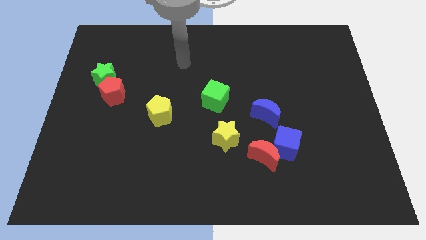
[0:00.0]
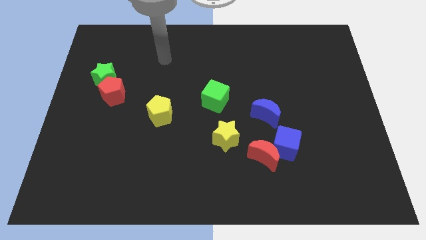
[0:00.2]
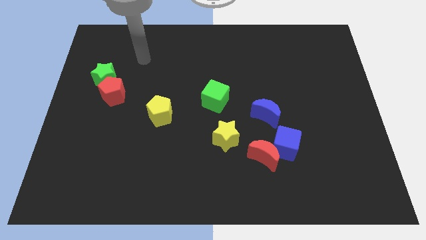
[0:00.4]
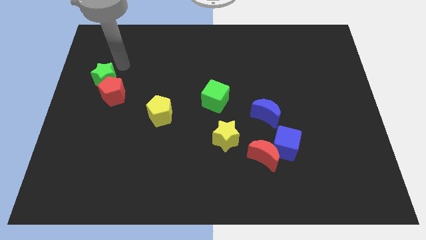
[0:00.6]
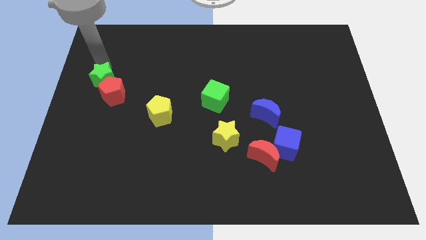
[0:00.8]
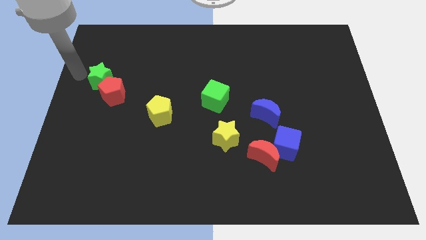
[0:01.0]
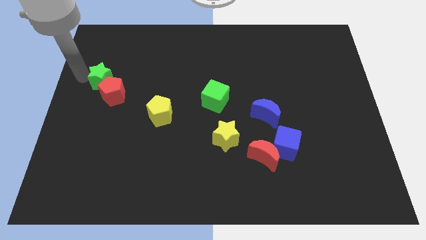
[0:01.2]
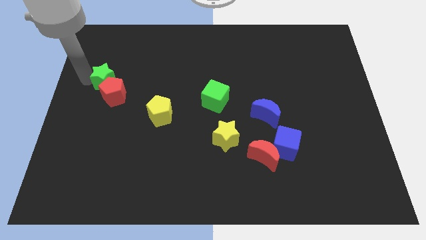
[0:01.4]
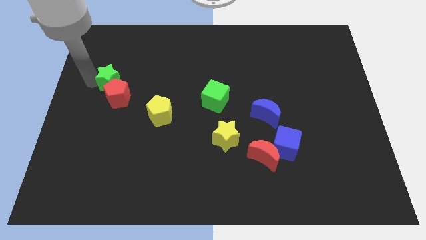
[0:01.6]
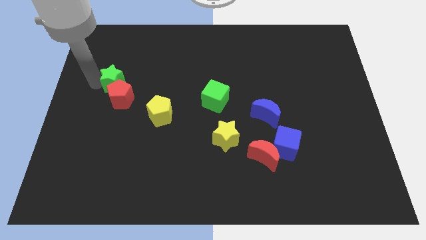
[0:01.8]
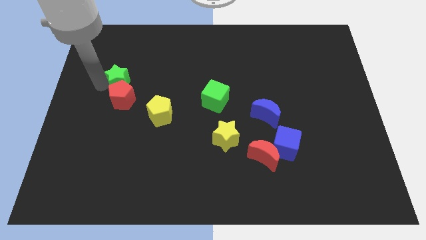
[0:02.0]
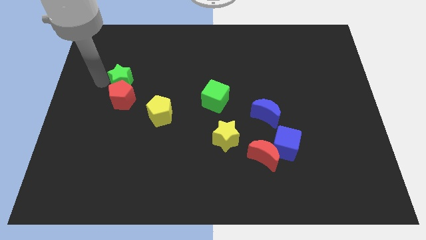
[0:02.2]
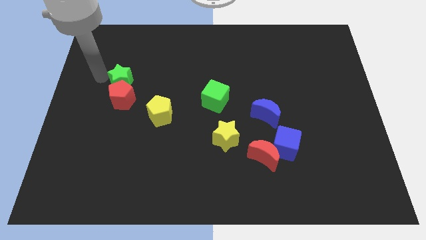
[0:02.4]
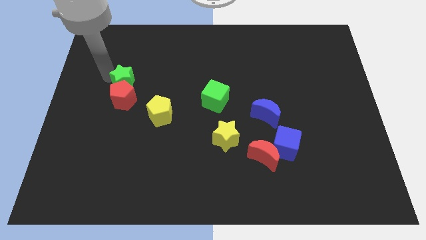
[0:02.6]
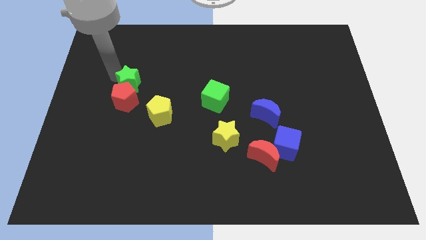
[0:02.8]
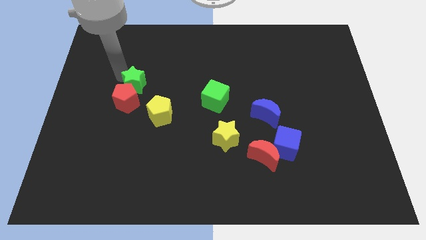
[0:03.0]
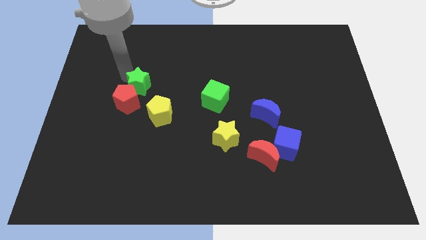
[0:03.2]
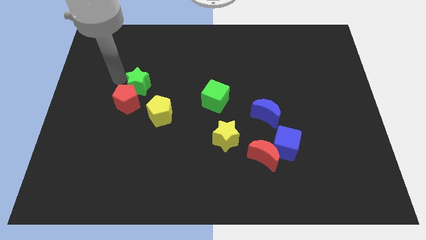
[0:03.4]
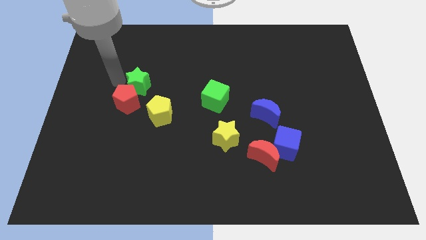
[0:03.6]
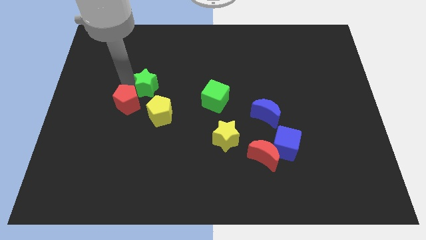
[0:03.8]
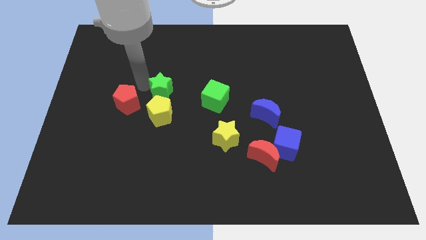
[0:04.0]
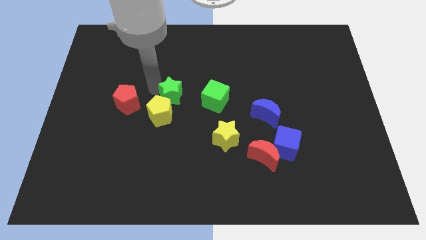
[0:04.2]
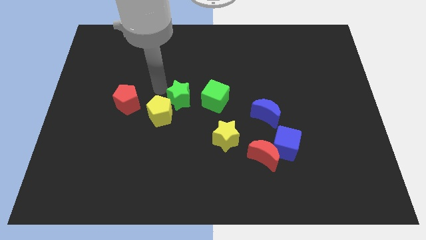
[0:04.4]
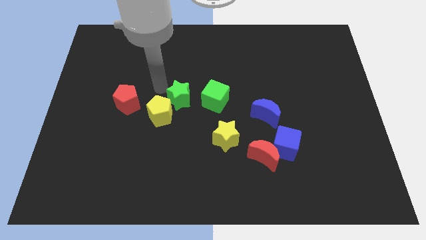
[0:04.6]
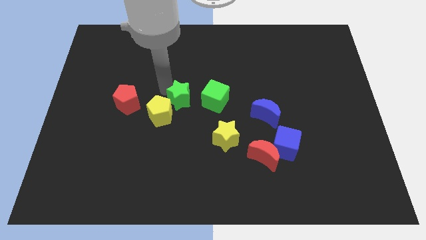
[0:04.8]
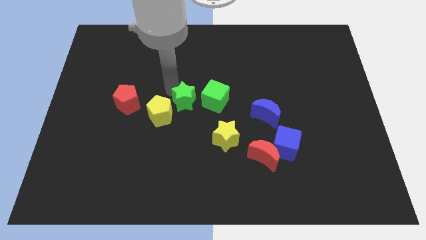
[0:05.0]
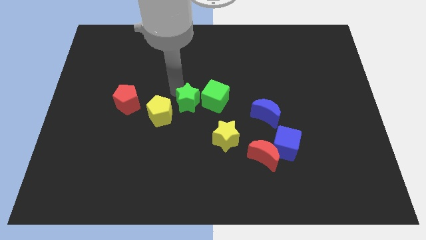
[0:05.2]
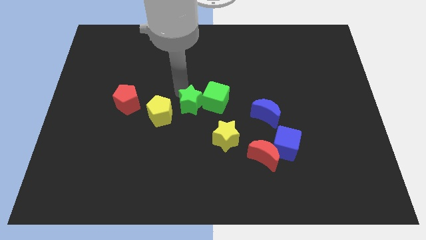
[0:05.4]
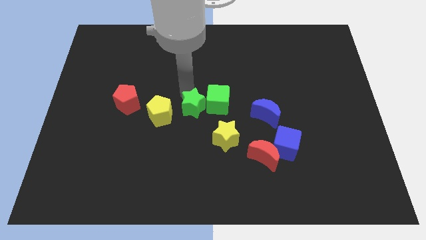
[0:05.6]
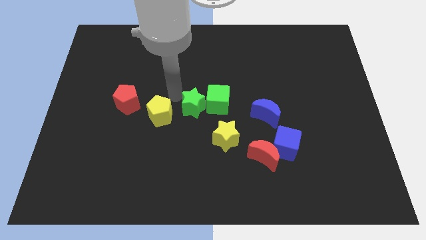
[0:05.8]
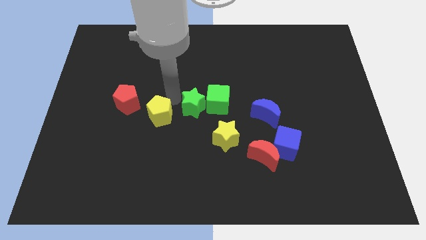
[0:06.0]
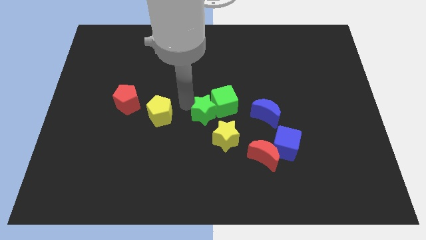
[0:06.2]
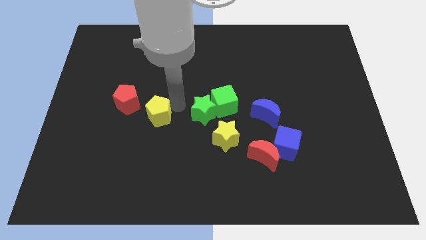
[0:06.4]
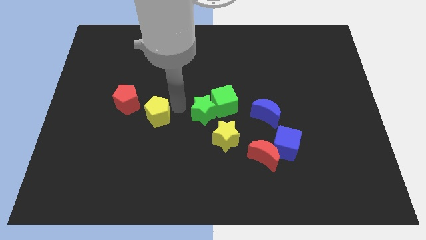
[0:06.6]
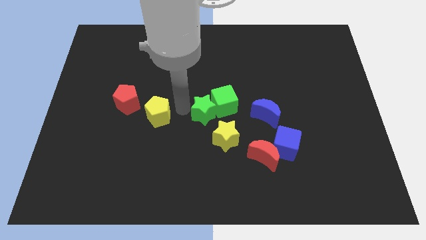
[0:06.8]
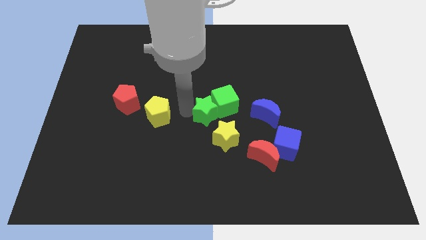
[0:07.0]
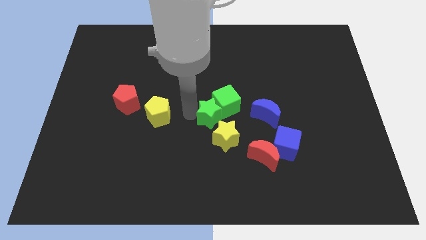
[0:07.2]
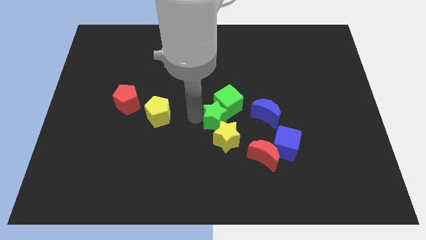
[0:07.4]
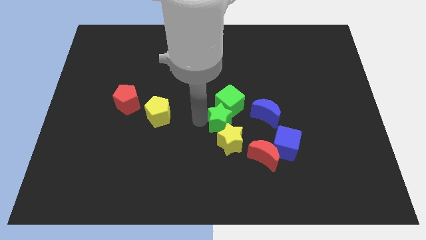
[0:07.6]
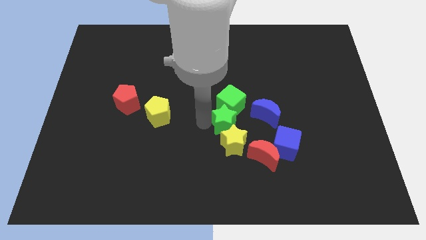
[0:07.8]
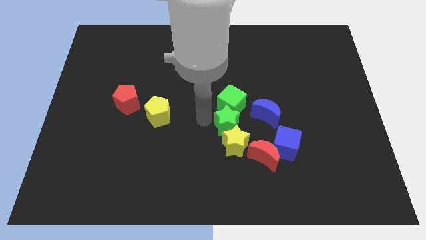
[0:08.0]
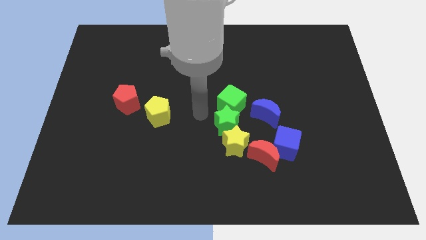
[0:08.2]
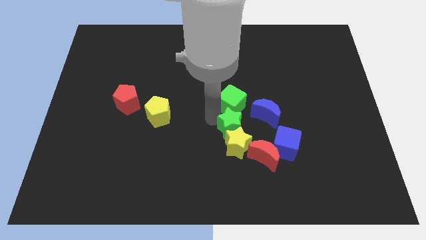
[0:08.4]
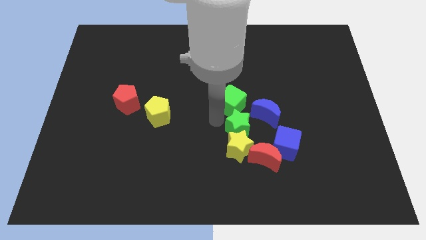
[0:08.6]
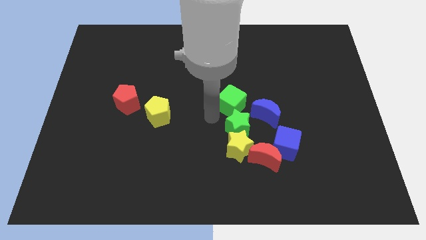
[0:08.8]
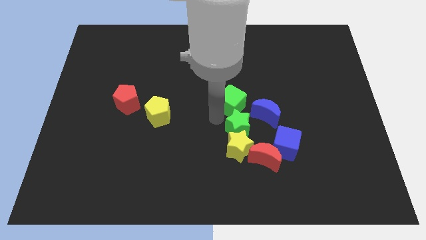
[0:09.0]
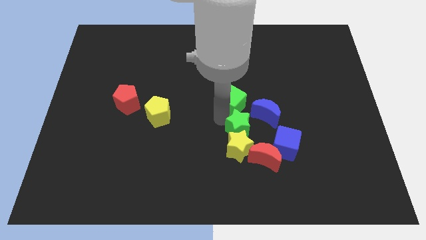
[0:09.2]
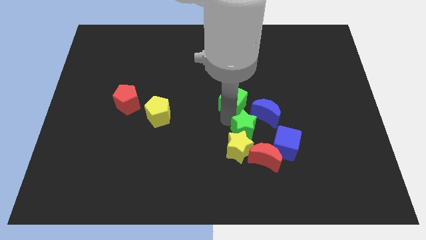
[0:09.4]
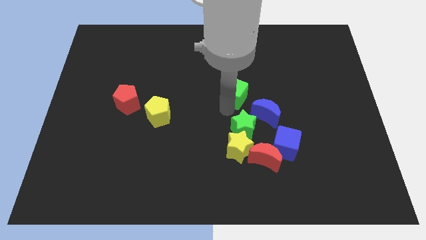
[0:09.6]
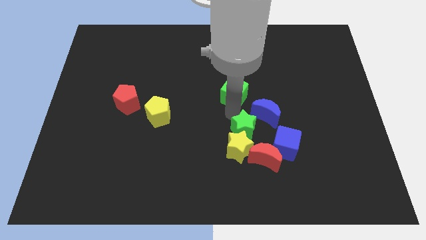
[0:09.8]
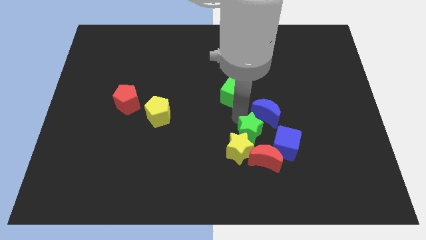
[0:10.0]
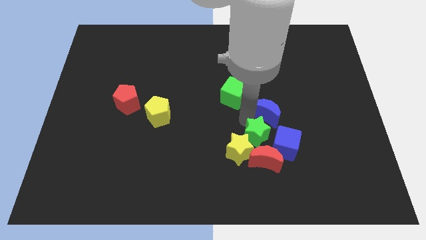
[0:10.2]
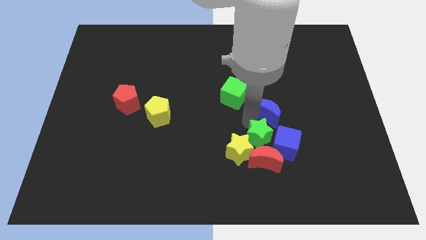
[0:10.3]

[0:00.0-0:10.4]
move the green star towards the red moon

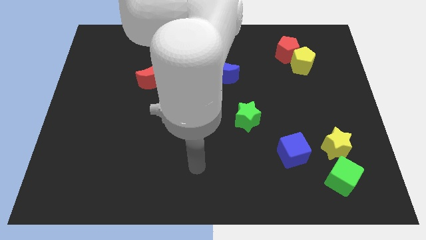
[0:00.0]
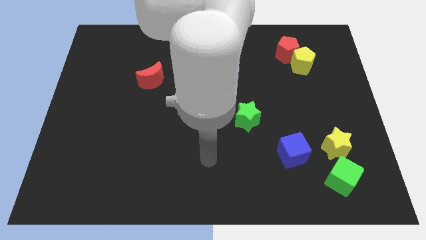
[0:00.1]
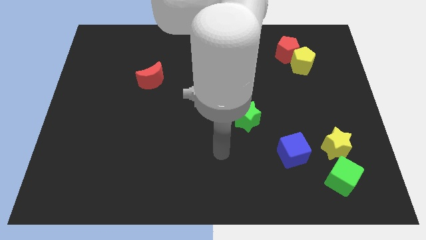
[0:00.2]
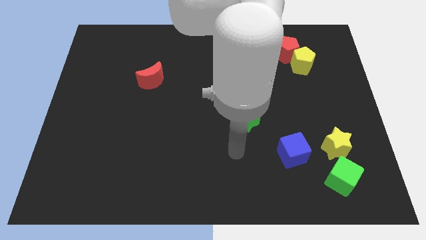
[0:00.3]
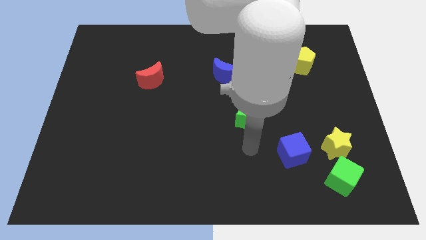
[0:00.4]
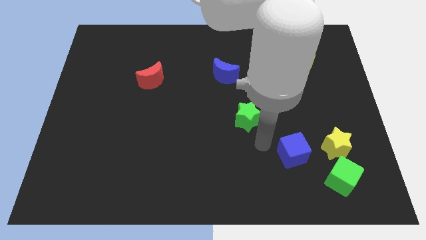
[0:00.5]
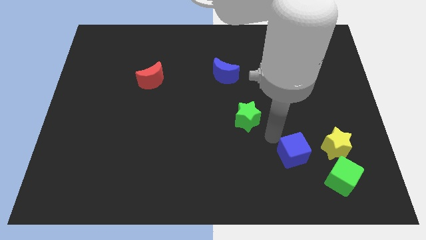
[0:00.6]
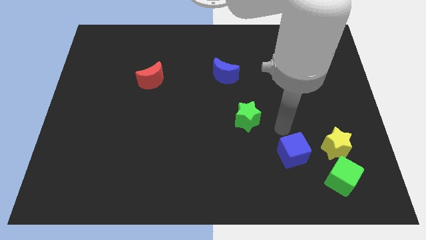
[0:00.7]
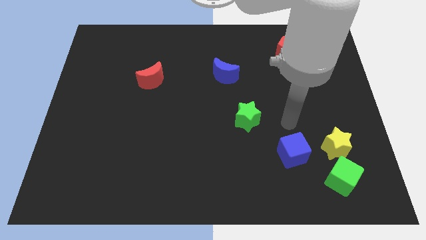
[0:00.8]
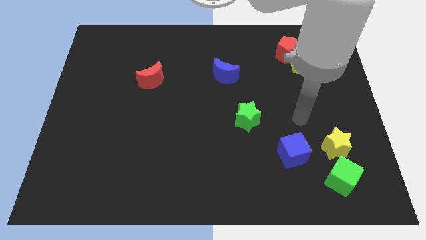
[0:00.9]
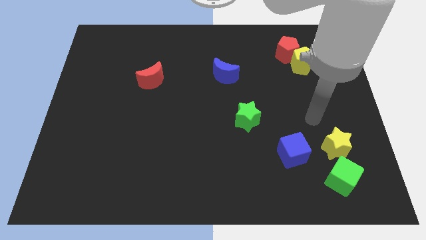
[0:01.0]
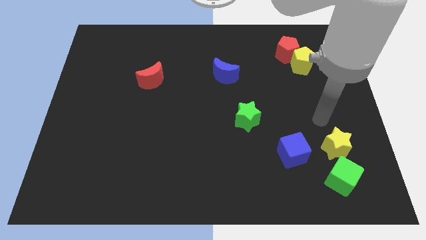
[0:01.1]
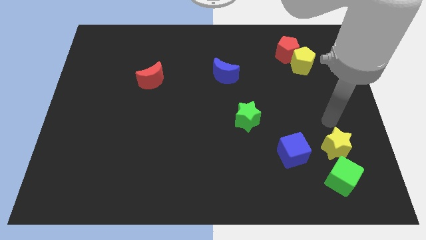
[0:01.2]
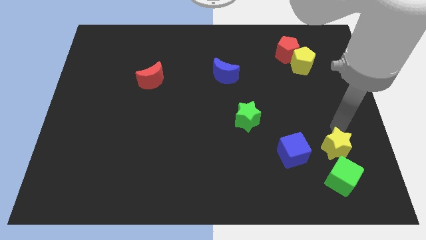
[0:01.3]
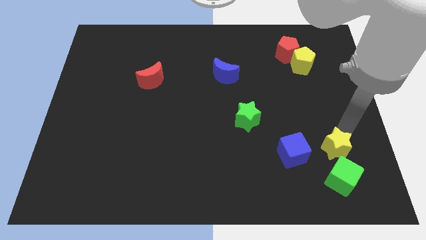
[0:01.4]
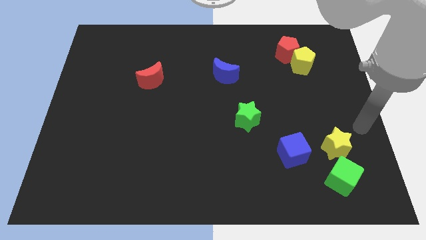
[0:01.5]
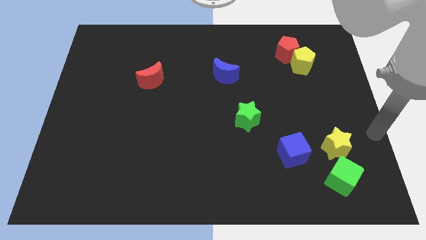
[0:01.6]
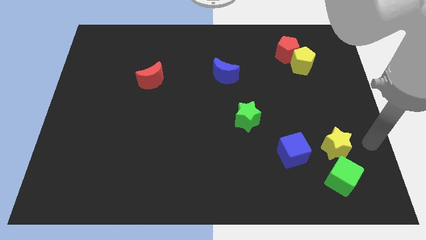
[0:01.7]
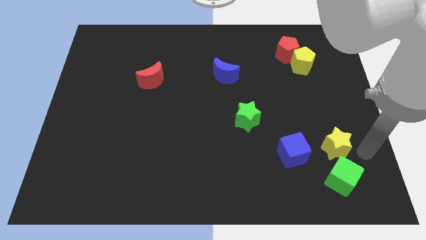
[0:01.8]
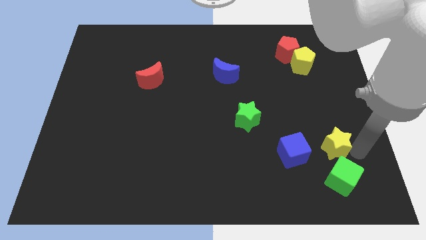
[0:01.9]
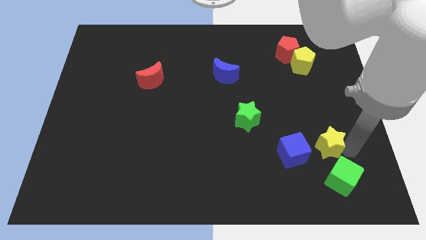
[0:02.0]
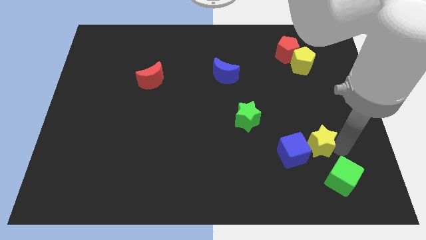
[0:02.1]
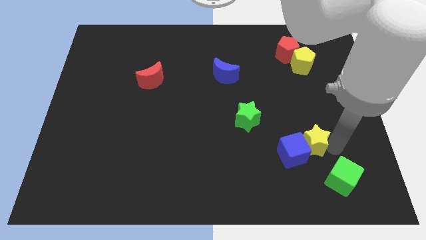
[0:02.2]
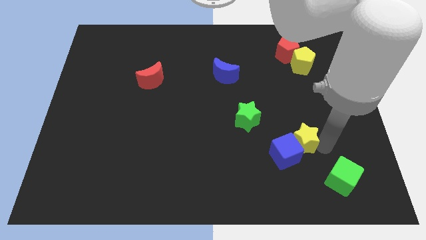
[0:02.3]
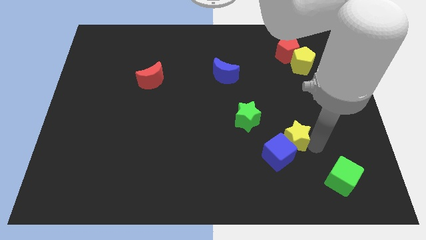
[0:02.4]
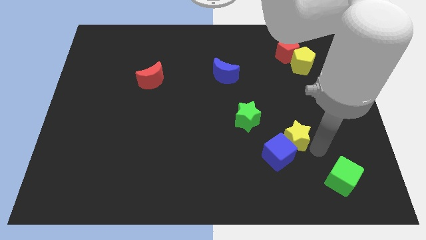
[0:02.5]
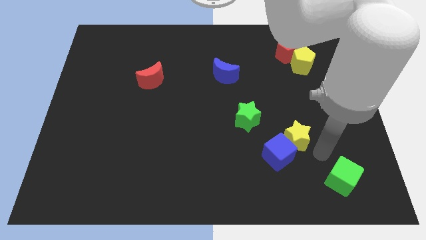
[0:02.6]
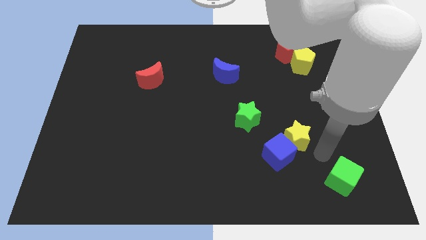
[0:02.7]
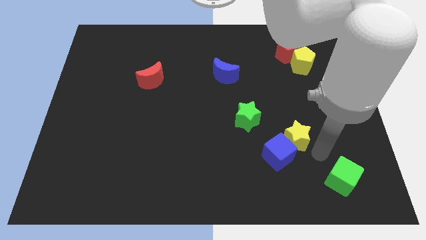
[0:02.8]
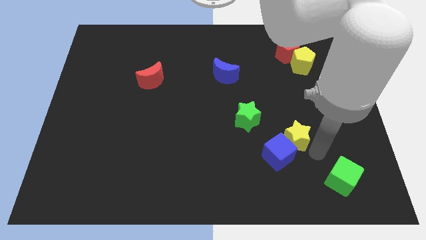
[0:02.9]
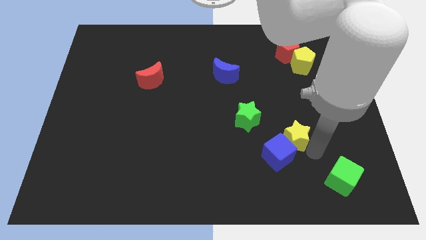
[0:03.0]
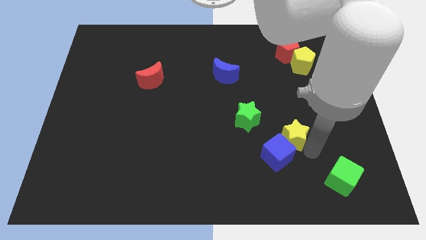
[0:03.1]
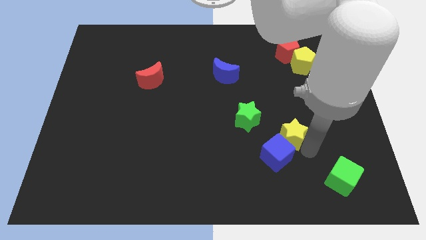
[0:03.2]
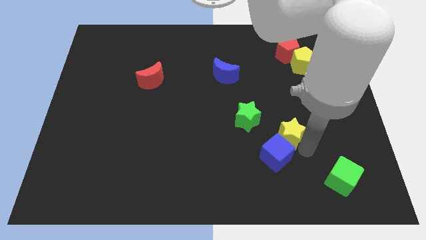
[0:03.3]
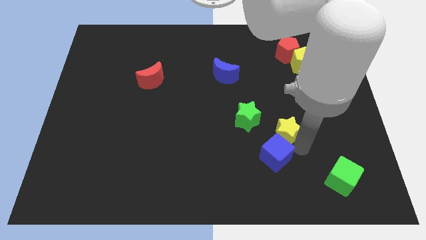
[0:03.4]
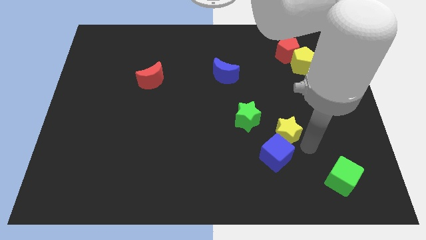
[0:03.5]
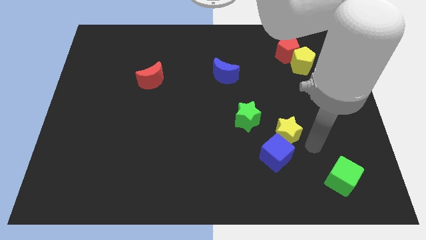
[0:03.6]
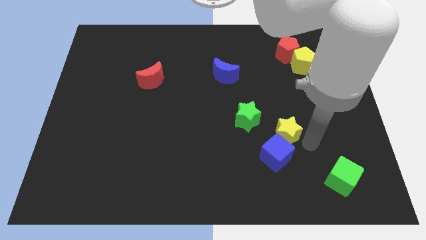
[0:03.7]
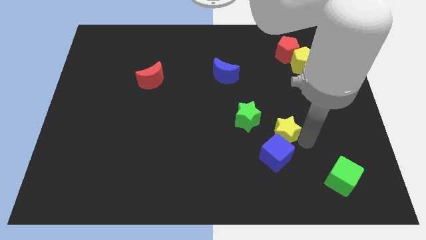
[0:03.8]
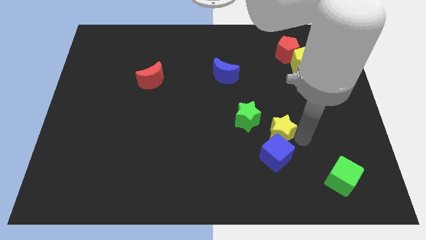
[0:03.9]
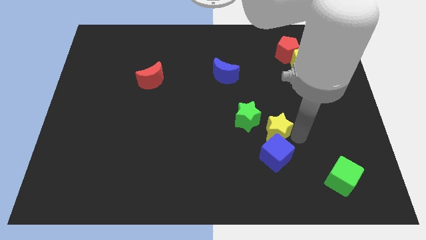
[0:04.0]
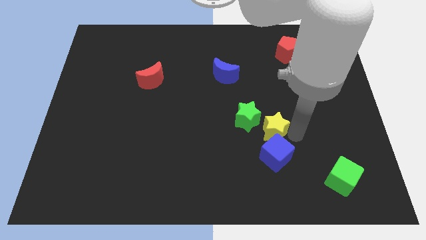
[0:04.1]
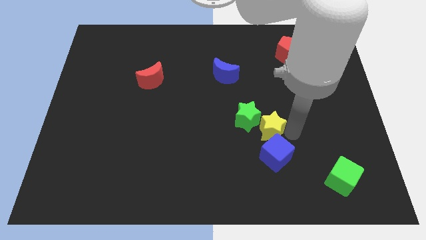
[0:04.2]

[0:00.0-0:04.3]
slide the yellow star to the green star
